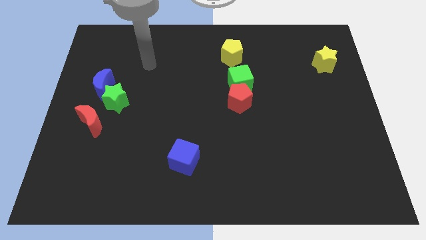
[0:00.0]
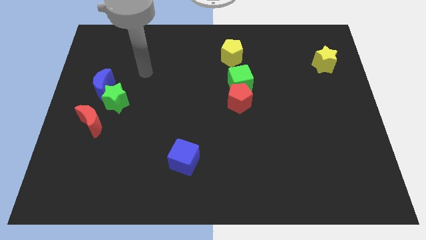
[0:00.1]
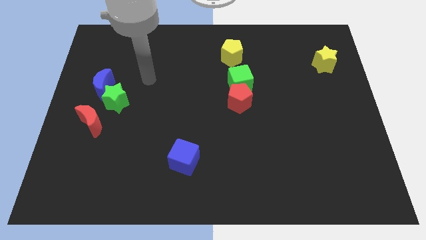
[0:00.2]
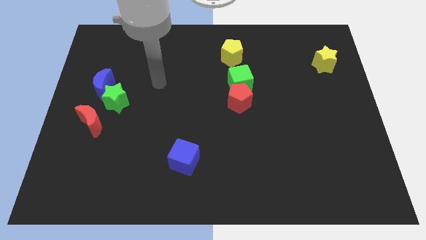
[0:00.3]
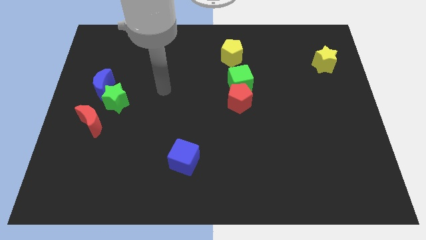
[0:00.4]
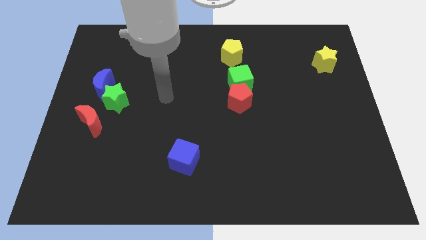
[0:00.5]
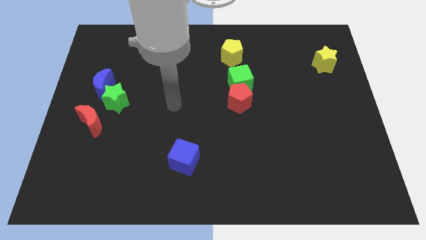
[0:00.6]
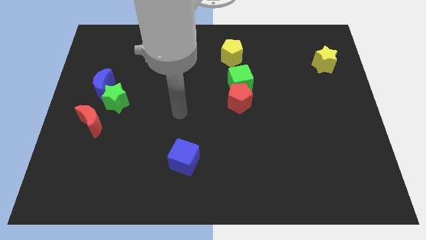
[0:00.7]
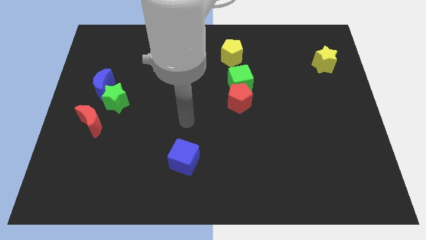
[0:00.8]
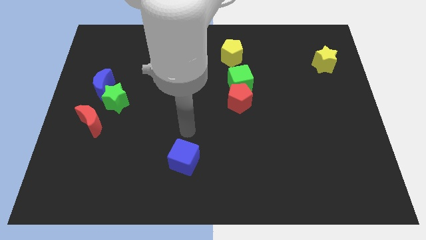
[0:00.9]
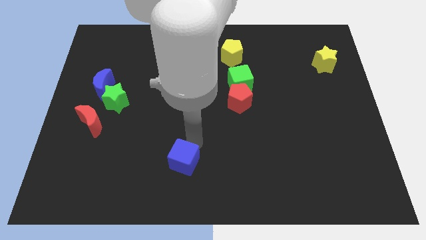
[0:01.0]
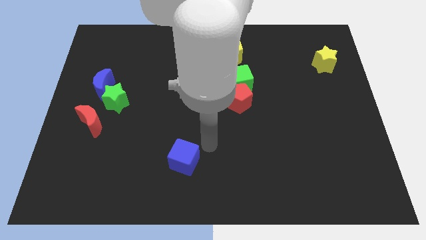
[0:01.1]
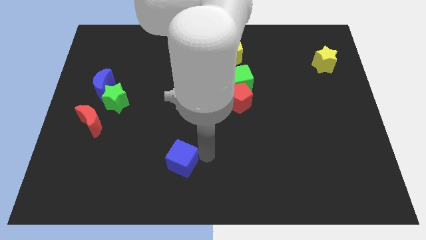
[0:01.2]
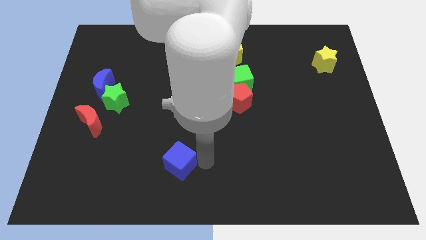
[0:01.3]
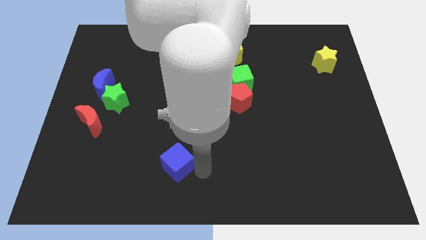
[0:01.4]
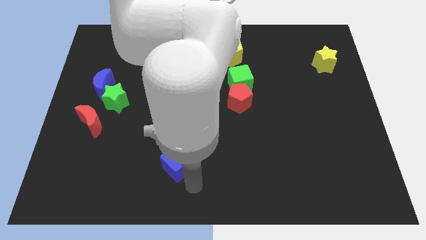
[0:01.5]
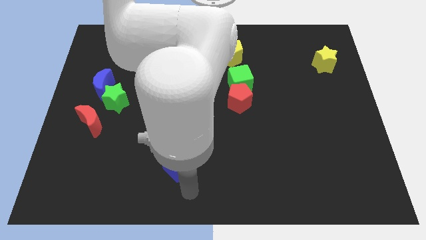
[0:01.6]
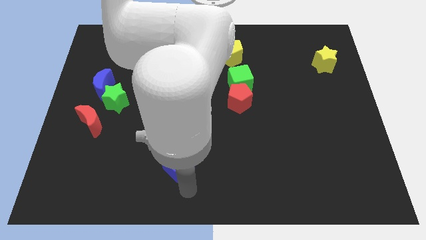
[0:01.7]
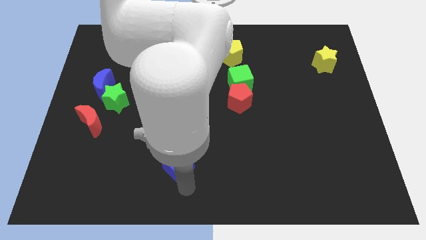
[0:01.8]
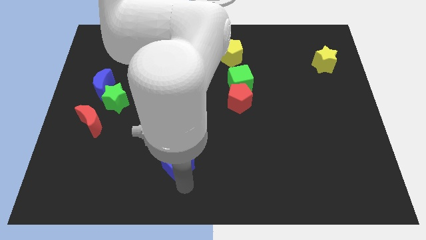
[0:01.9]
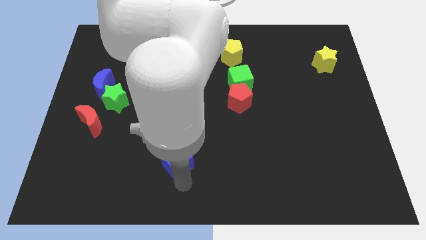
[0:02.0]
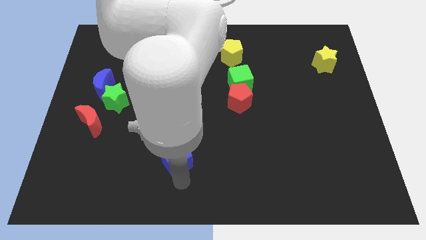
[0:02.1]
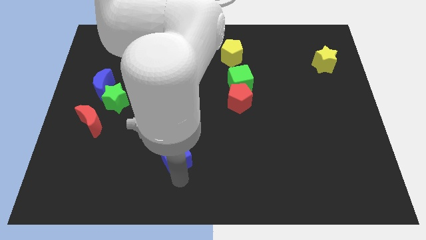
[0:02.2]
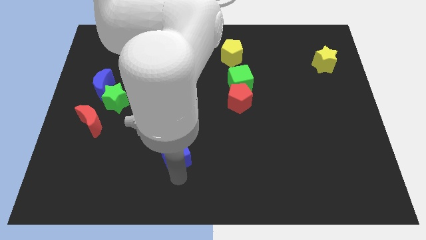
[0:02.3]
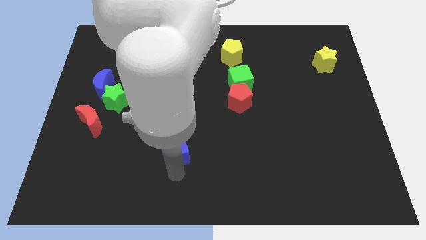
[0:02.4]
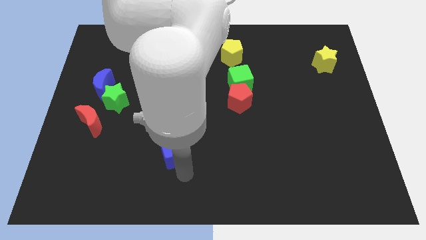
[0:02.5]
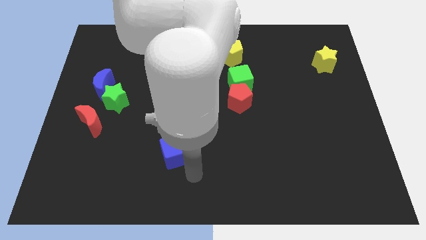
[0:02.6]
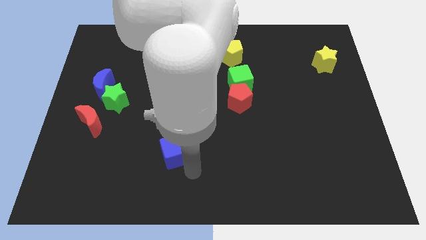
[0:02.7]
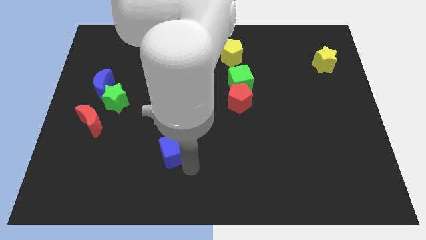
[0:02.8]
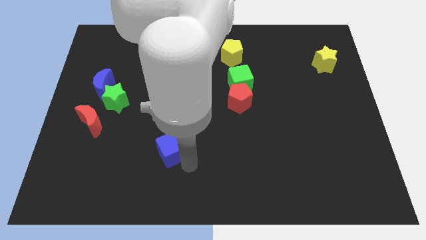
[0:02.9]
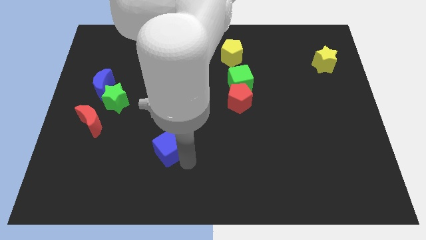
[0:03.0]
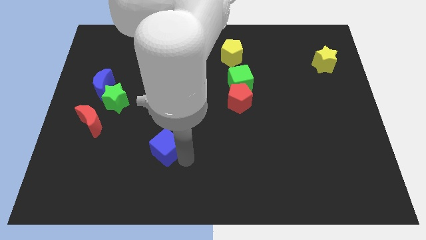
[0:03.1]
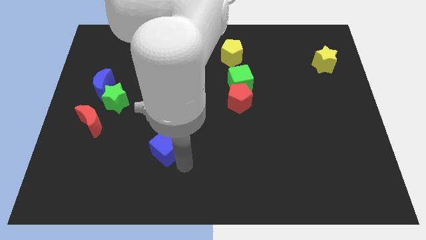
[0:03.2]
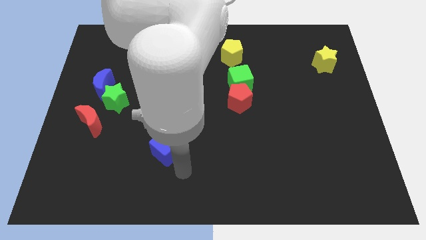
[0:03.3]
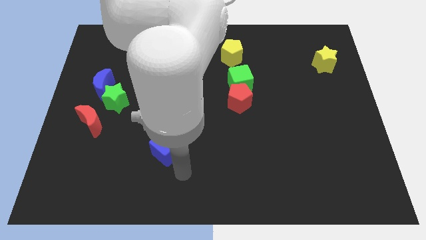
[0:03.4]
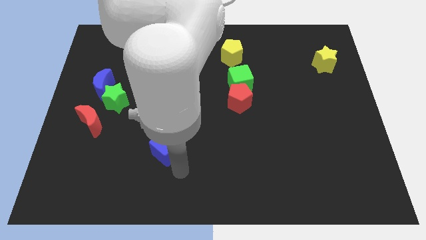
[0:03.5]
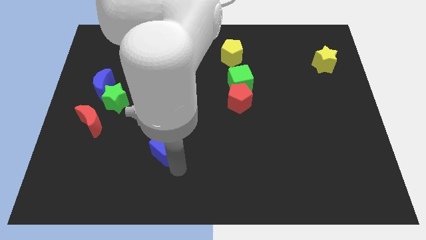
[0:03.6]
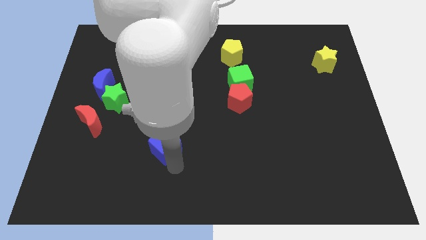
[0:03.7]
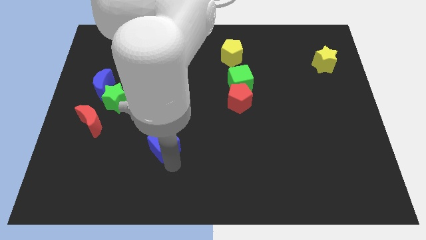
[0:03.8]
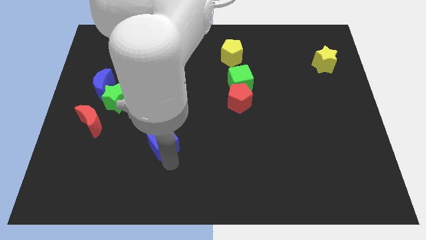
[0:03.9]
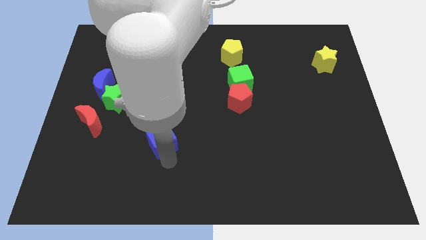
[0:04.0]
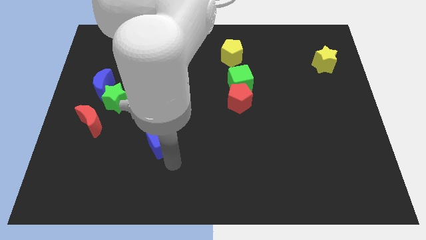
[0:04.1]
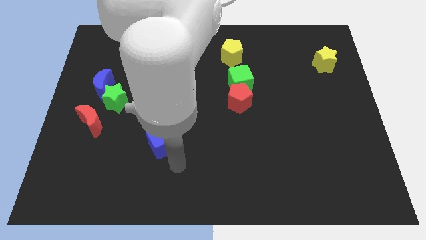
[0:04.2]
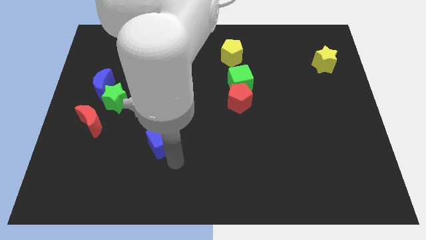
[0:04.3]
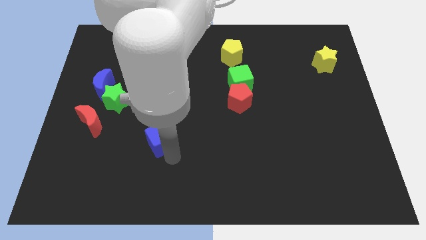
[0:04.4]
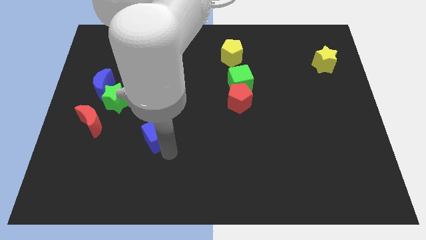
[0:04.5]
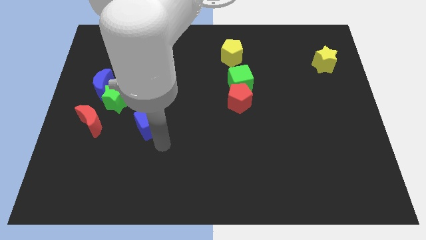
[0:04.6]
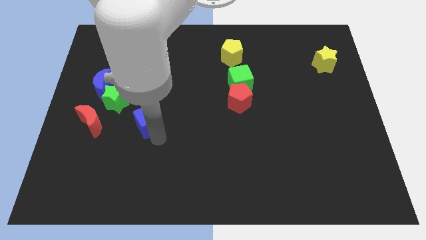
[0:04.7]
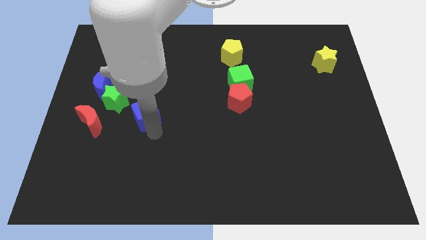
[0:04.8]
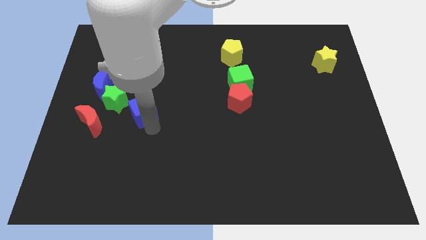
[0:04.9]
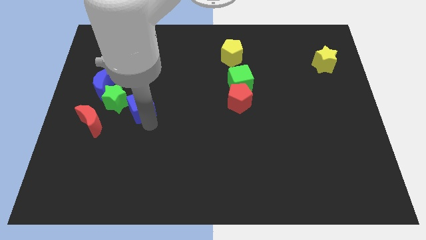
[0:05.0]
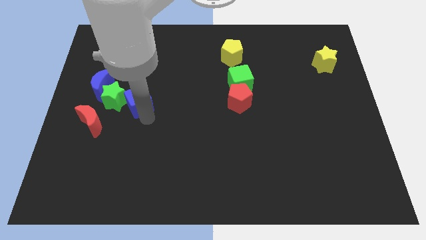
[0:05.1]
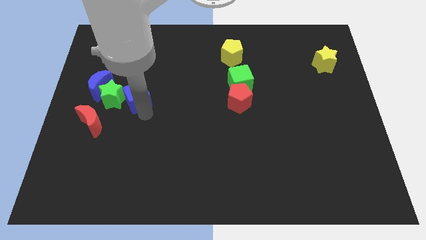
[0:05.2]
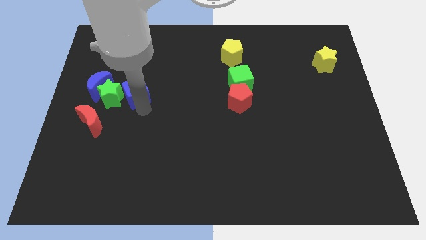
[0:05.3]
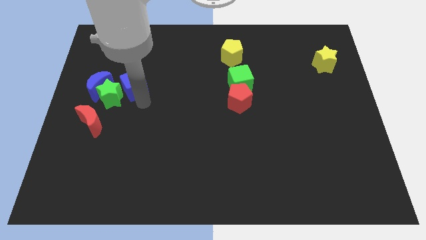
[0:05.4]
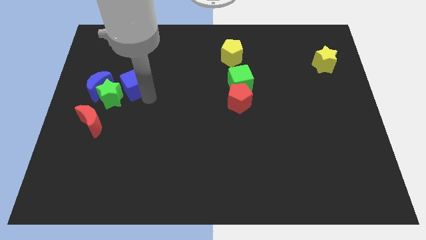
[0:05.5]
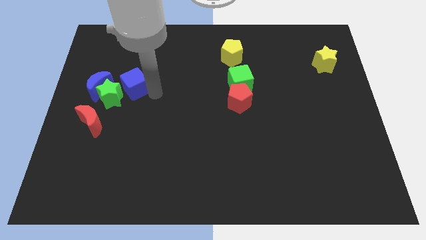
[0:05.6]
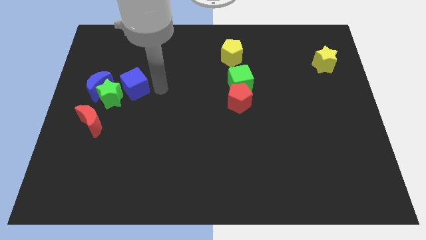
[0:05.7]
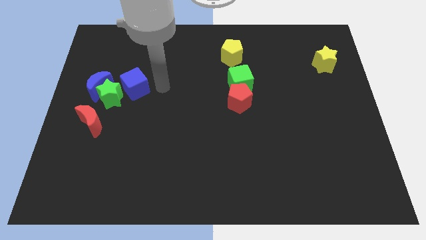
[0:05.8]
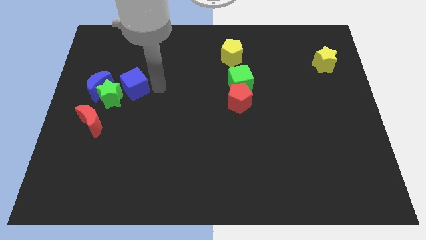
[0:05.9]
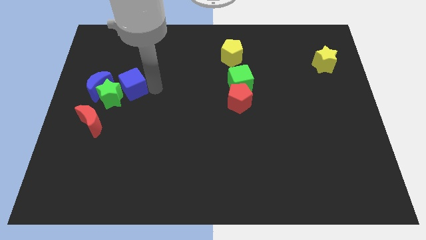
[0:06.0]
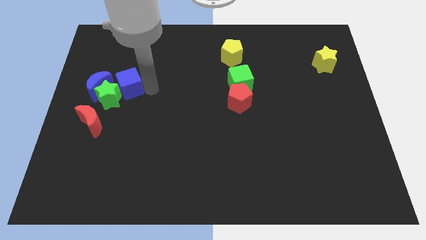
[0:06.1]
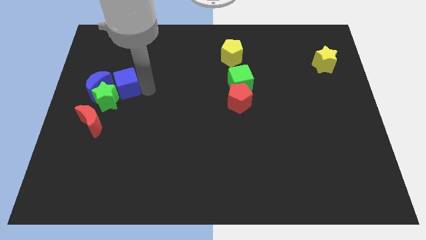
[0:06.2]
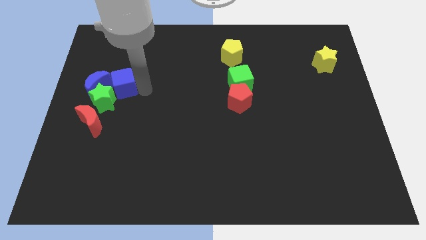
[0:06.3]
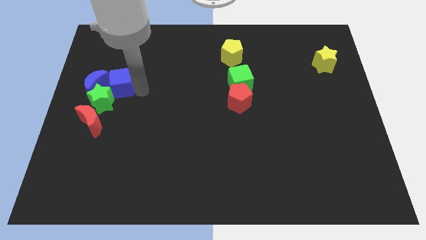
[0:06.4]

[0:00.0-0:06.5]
push the blue cube close to the blue moon

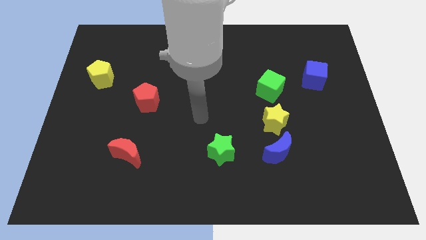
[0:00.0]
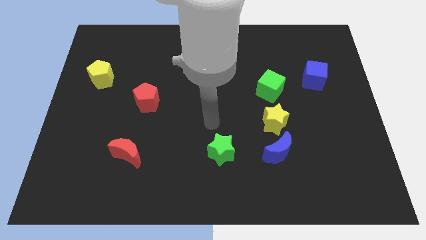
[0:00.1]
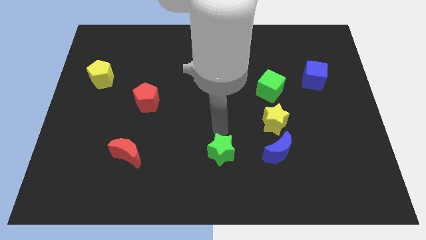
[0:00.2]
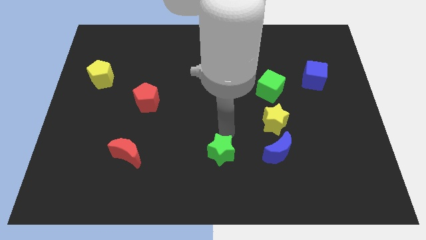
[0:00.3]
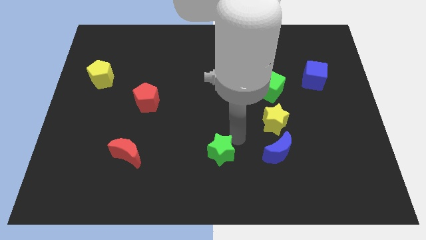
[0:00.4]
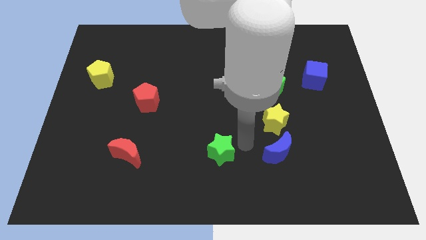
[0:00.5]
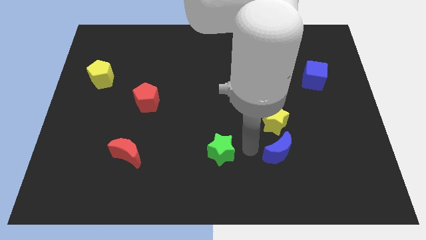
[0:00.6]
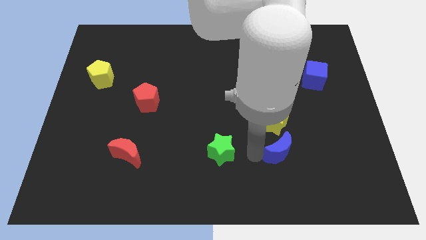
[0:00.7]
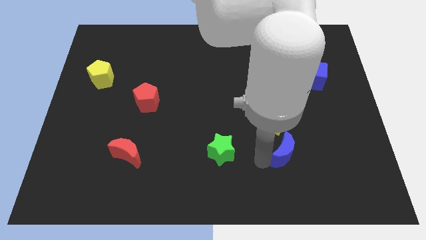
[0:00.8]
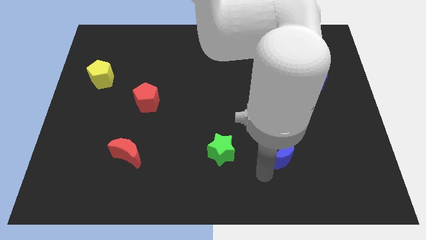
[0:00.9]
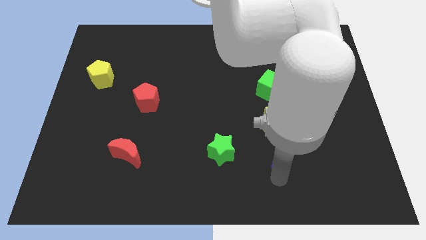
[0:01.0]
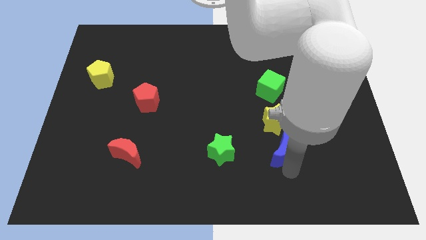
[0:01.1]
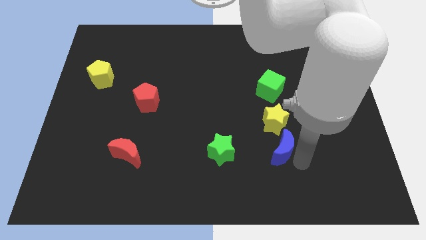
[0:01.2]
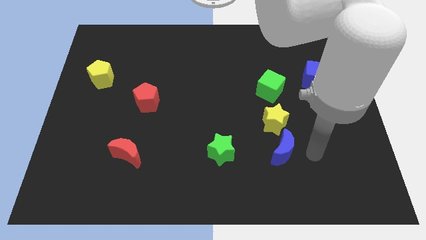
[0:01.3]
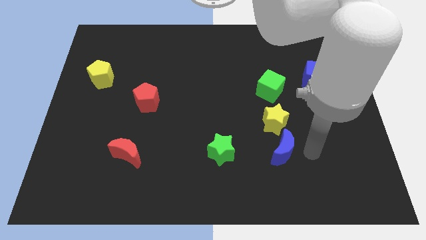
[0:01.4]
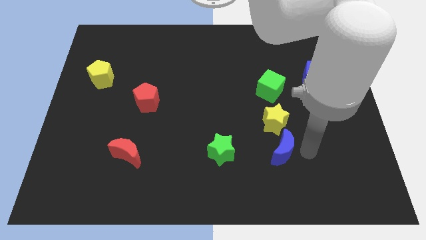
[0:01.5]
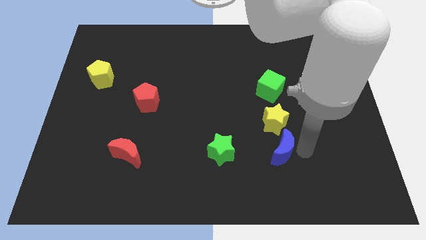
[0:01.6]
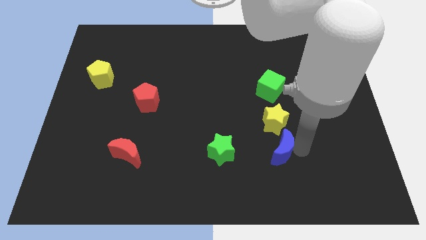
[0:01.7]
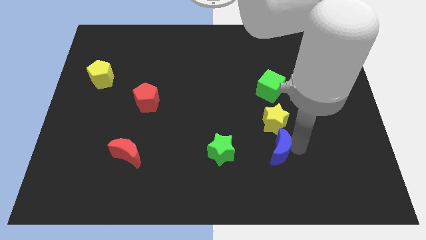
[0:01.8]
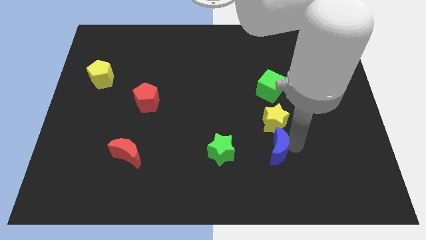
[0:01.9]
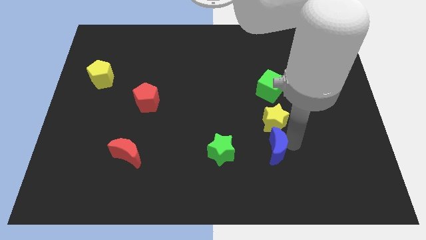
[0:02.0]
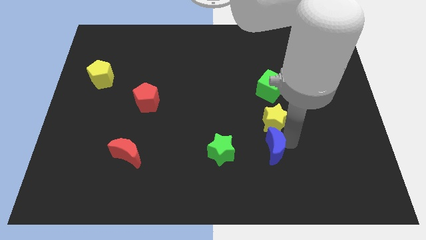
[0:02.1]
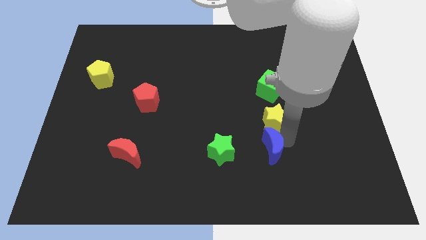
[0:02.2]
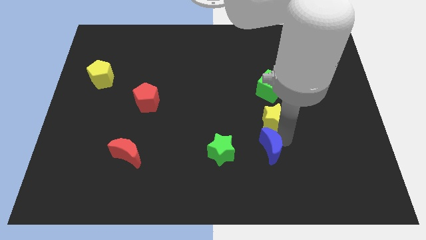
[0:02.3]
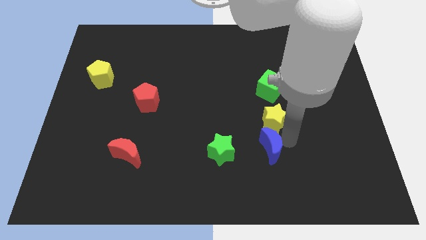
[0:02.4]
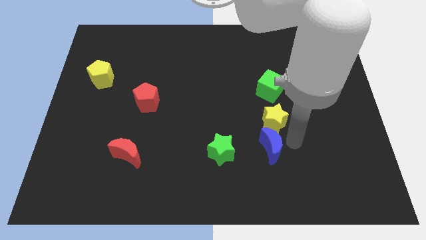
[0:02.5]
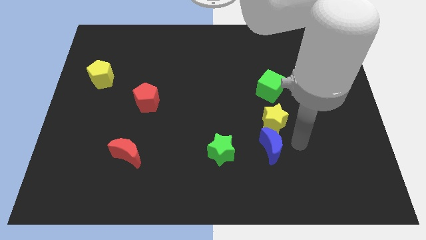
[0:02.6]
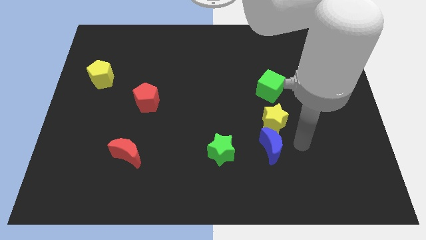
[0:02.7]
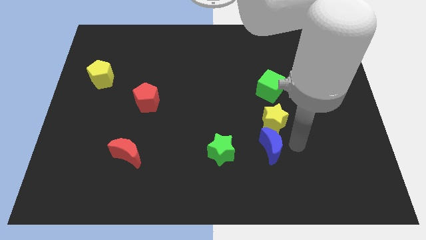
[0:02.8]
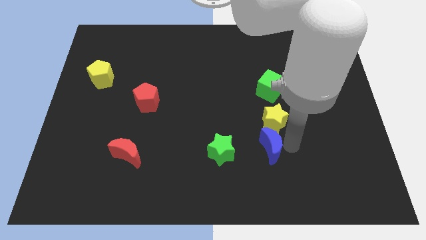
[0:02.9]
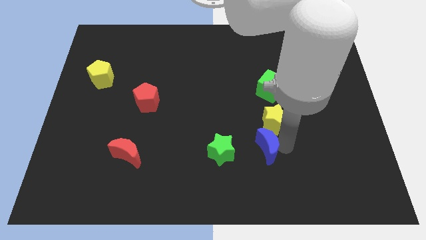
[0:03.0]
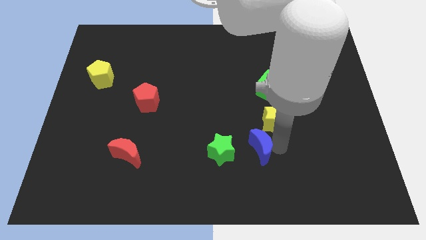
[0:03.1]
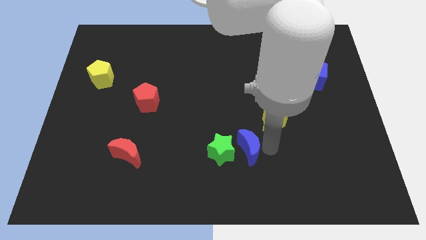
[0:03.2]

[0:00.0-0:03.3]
slide the blue moon towards the green star
